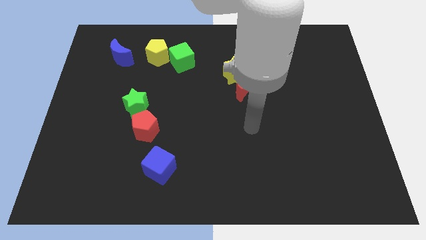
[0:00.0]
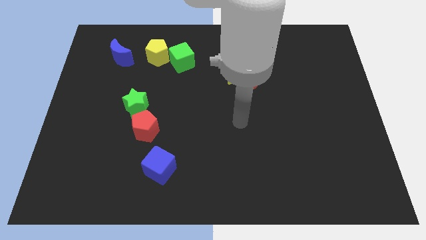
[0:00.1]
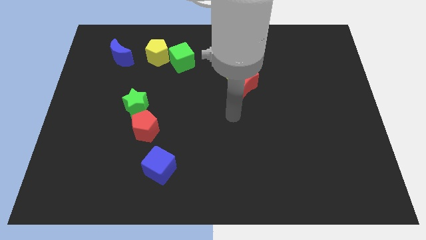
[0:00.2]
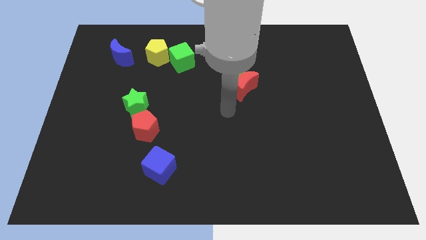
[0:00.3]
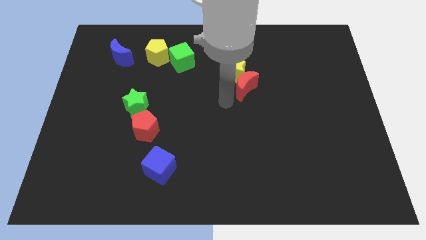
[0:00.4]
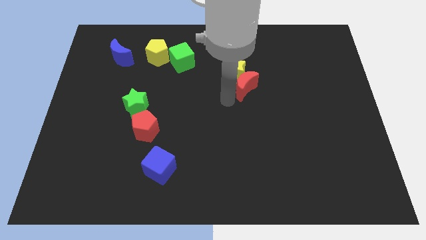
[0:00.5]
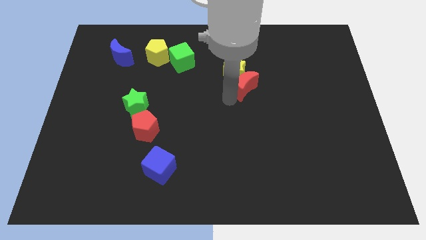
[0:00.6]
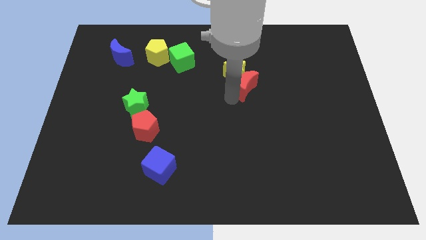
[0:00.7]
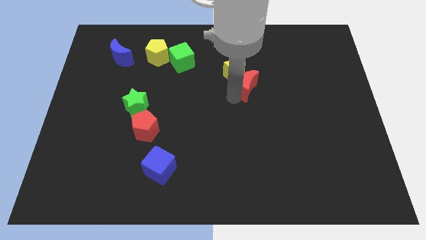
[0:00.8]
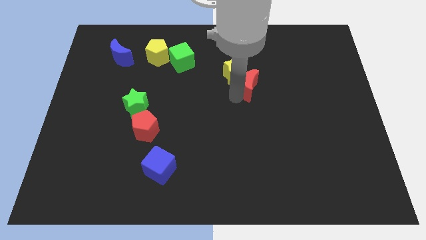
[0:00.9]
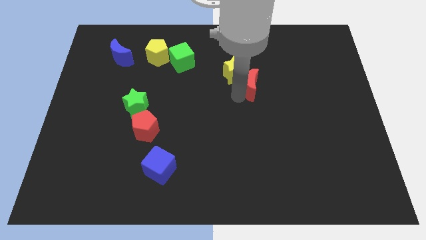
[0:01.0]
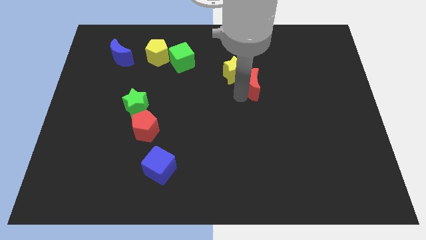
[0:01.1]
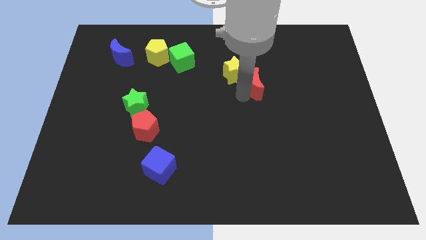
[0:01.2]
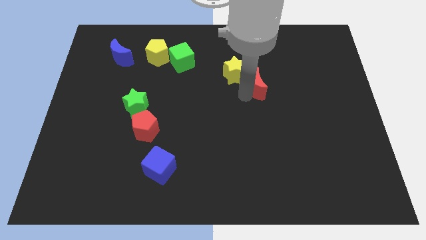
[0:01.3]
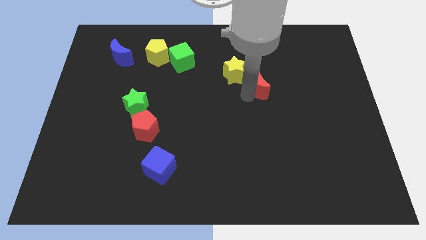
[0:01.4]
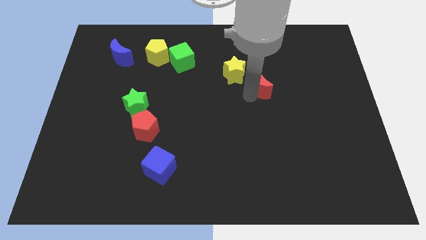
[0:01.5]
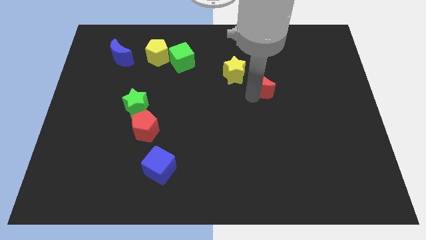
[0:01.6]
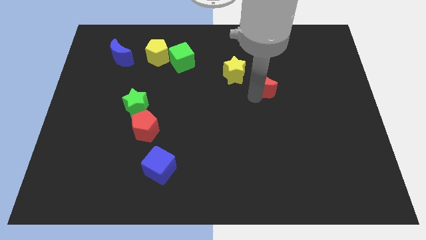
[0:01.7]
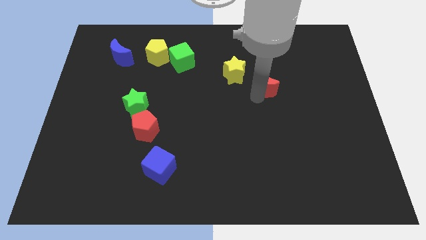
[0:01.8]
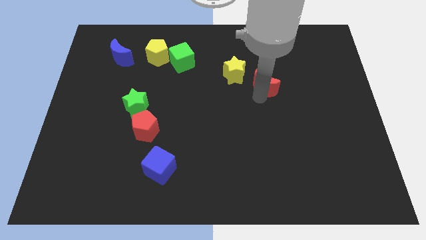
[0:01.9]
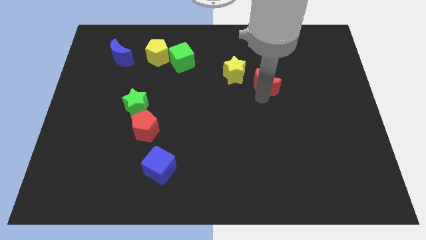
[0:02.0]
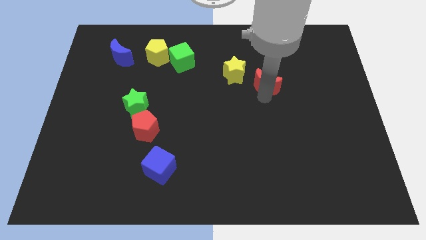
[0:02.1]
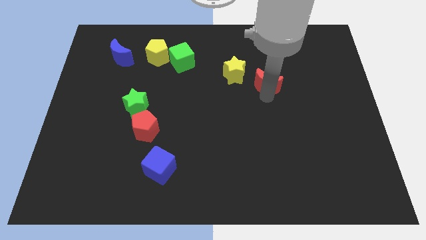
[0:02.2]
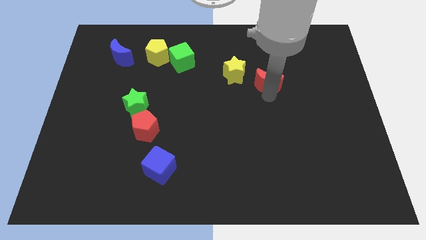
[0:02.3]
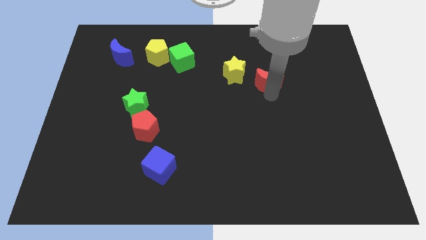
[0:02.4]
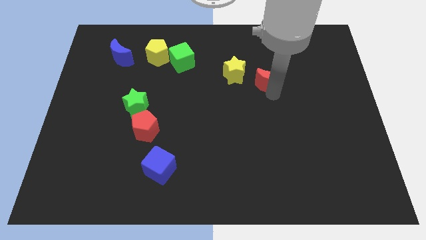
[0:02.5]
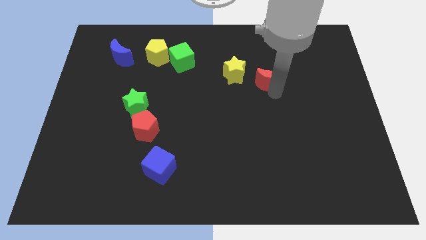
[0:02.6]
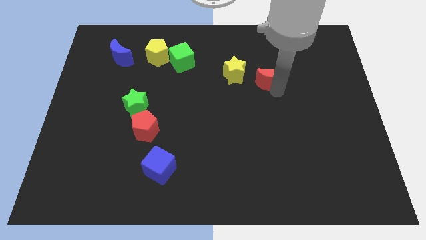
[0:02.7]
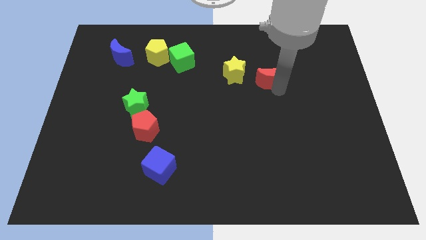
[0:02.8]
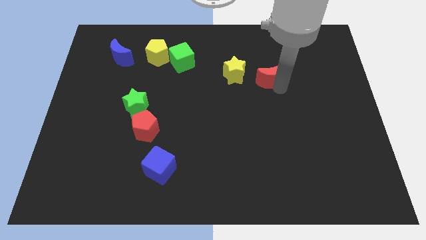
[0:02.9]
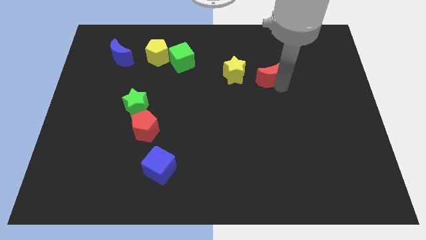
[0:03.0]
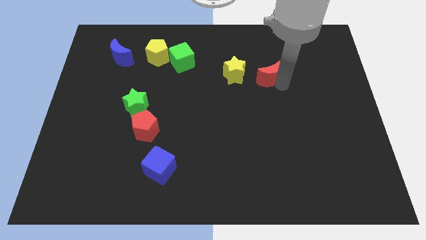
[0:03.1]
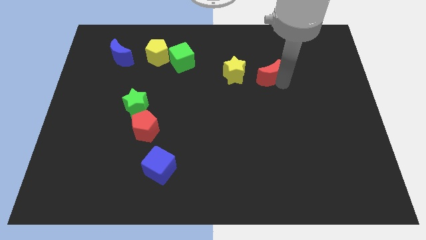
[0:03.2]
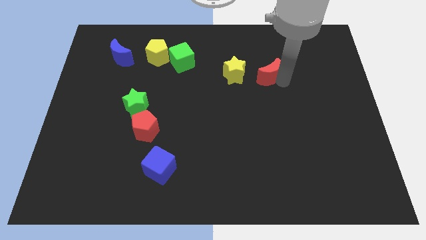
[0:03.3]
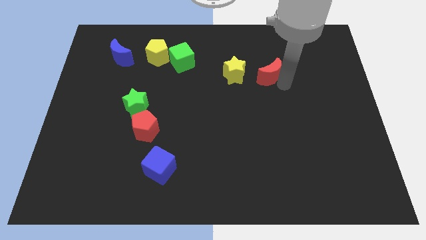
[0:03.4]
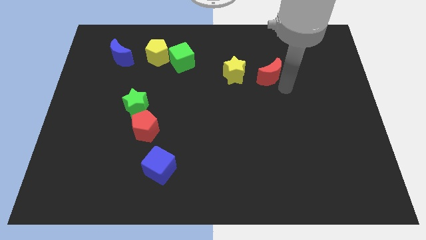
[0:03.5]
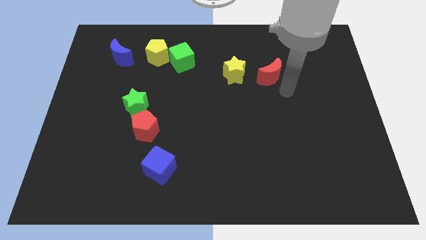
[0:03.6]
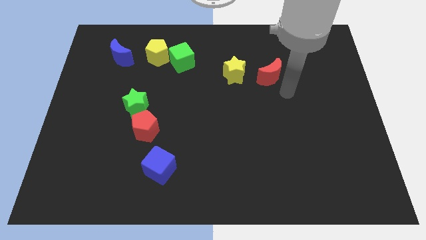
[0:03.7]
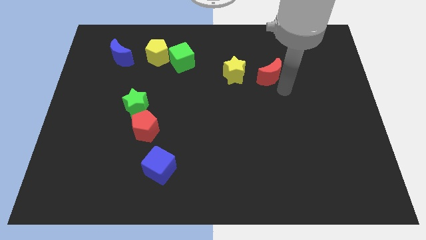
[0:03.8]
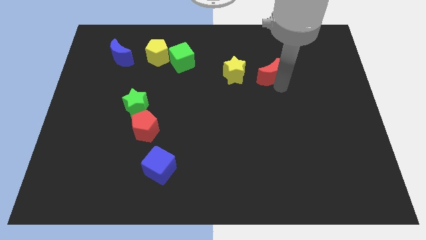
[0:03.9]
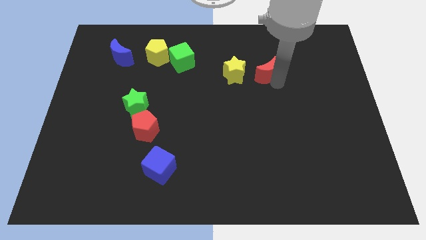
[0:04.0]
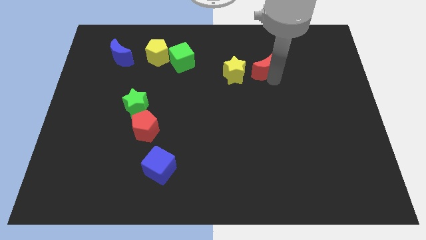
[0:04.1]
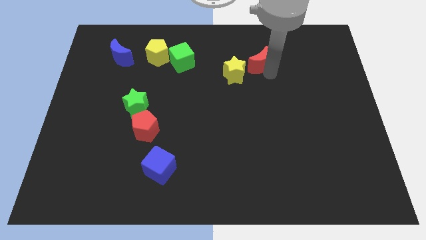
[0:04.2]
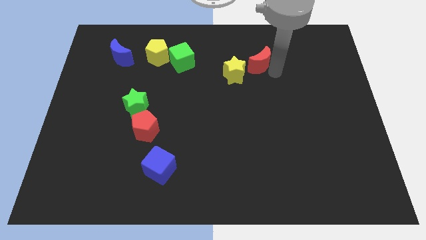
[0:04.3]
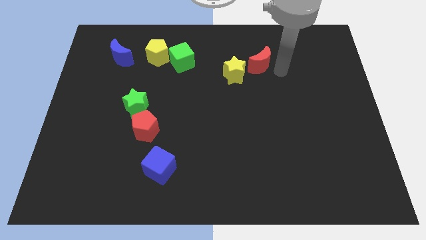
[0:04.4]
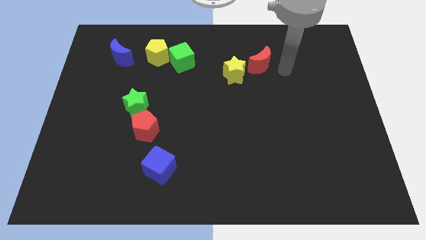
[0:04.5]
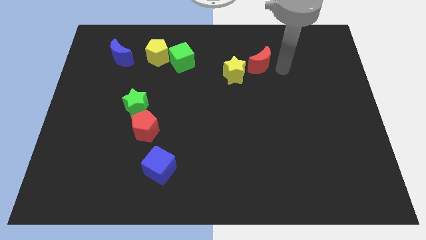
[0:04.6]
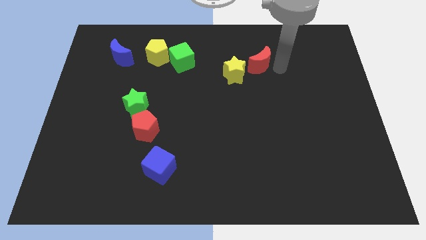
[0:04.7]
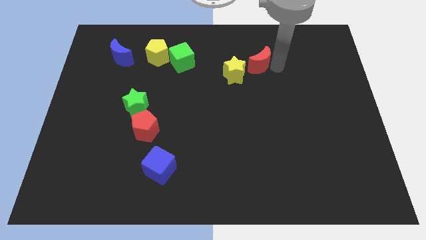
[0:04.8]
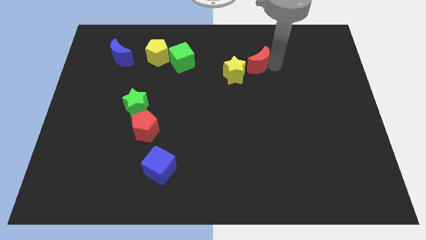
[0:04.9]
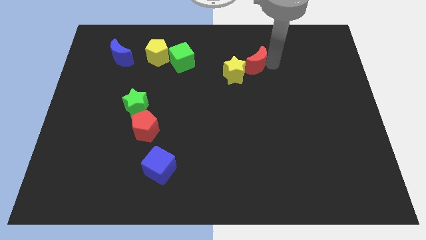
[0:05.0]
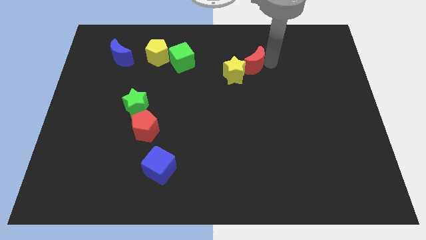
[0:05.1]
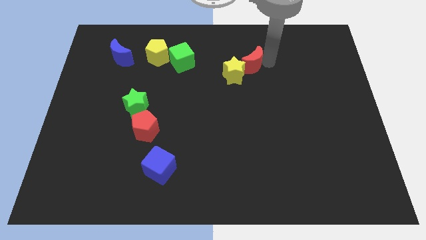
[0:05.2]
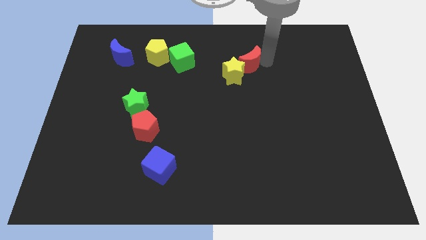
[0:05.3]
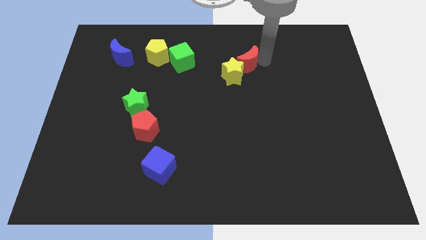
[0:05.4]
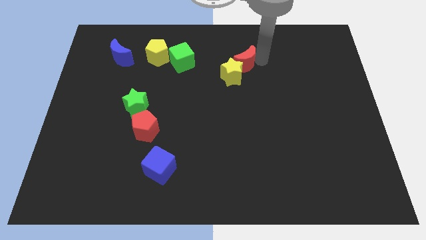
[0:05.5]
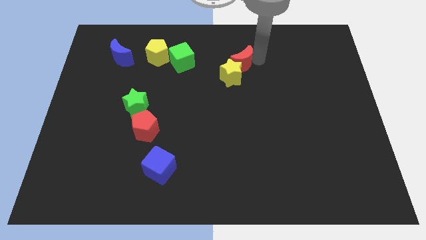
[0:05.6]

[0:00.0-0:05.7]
move the red moon right of the green cube
